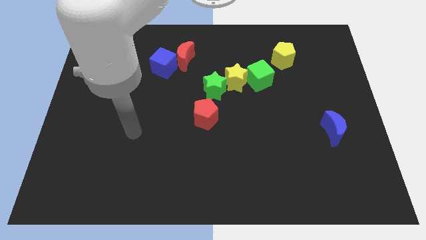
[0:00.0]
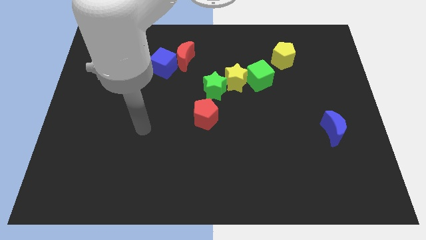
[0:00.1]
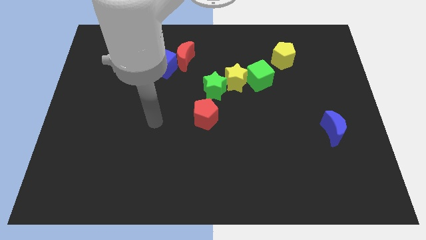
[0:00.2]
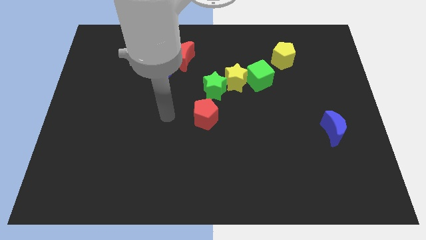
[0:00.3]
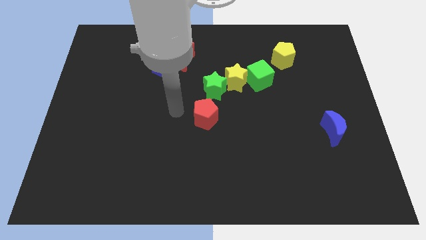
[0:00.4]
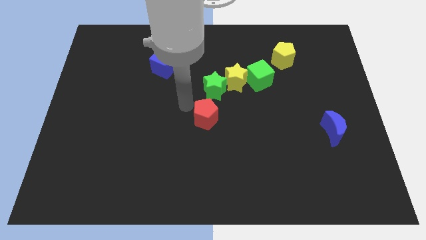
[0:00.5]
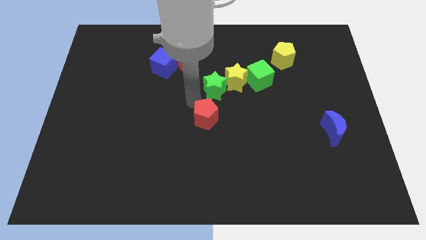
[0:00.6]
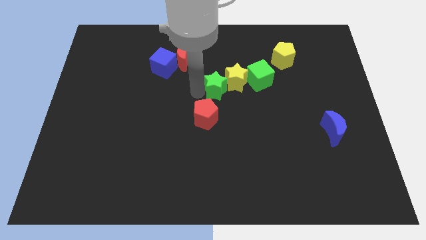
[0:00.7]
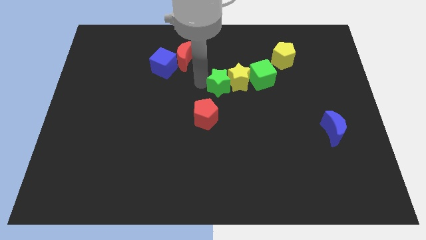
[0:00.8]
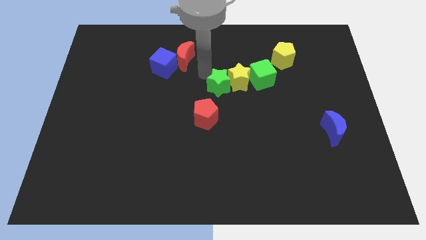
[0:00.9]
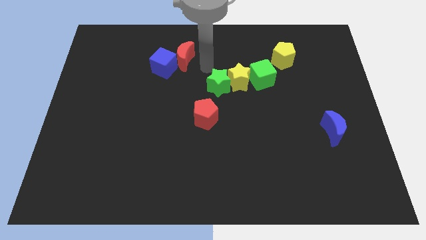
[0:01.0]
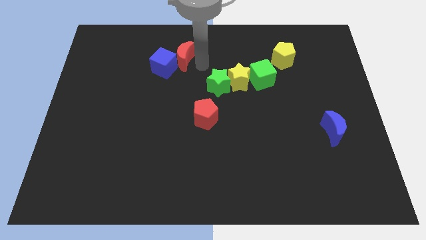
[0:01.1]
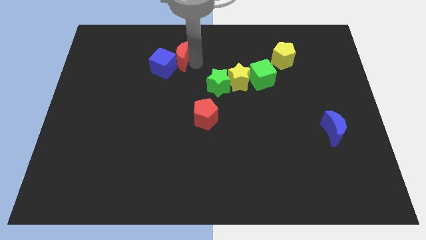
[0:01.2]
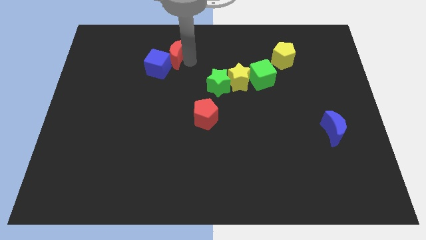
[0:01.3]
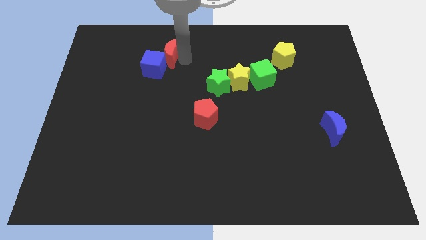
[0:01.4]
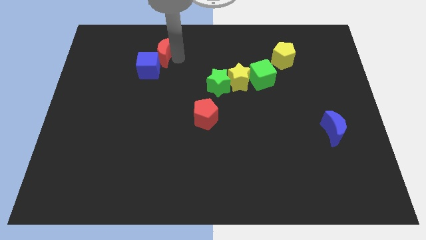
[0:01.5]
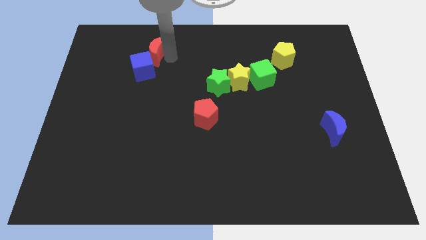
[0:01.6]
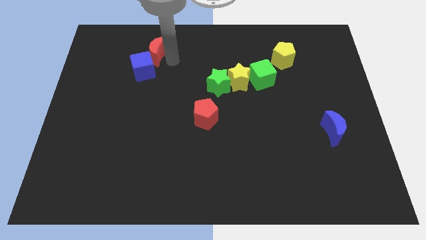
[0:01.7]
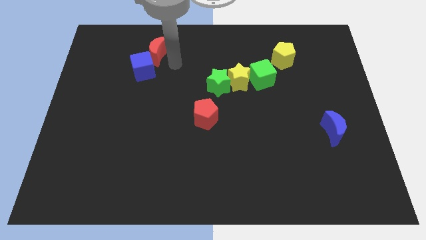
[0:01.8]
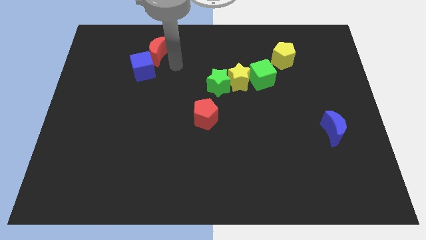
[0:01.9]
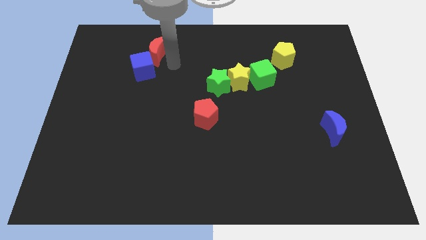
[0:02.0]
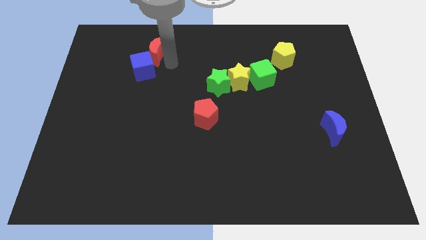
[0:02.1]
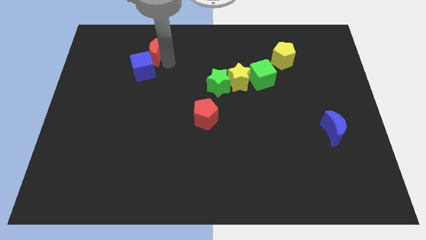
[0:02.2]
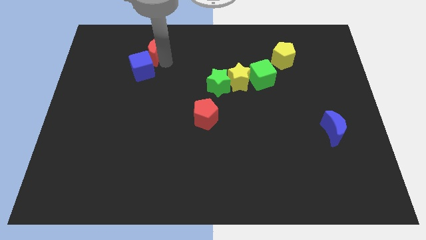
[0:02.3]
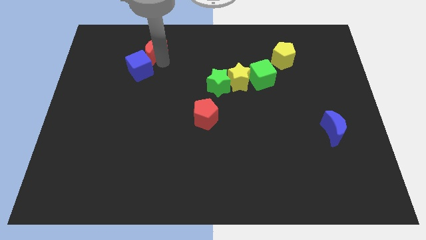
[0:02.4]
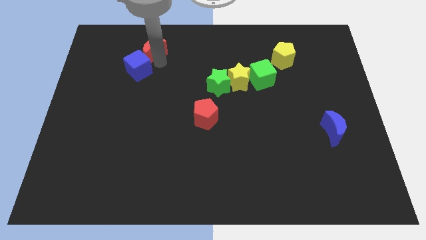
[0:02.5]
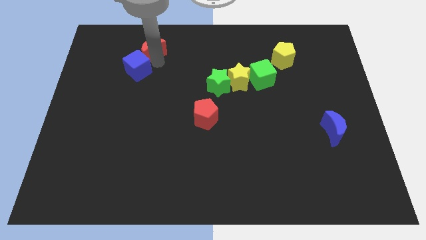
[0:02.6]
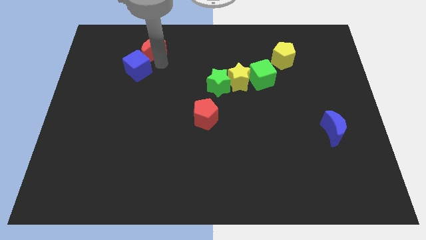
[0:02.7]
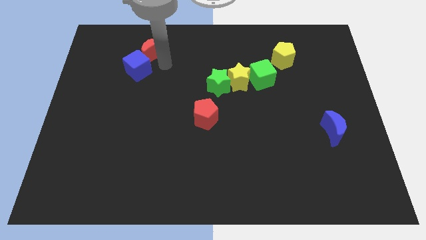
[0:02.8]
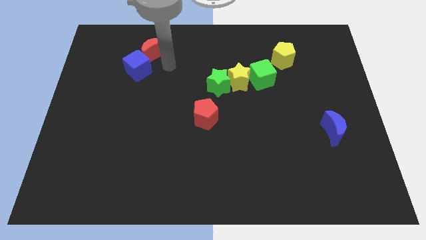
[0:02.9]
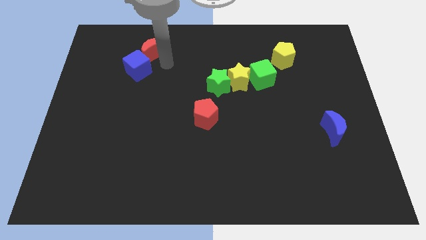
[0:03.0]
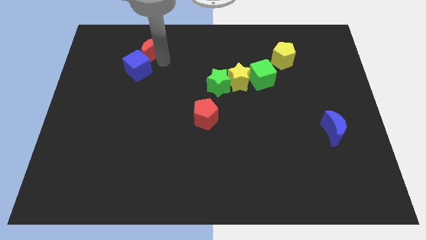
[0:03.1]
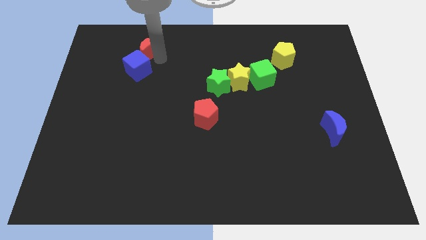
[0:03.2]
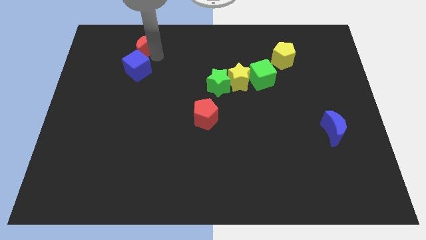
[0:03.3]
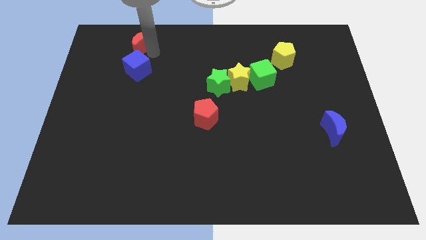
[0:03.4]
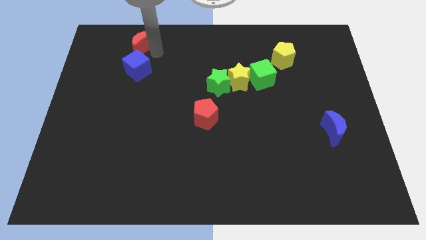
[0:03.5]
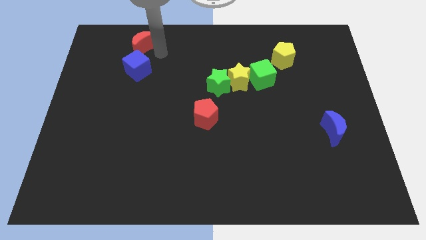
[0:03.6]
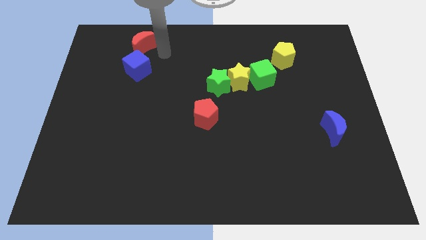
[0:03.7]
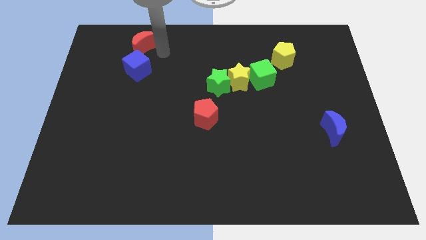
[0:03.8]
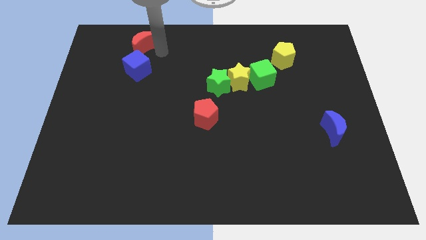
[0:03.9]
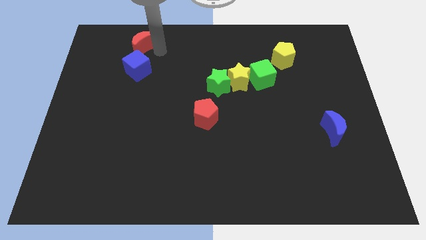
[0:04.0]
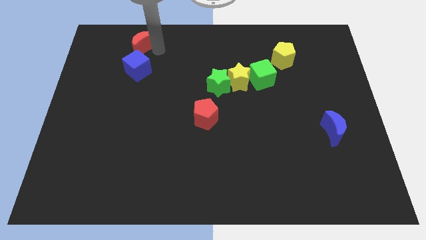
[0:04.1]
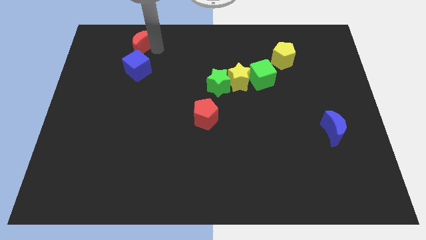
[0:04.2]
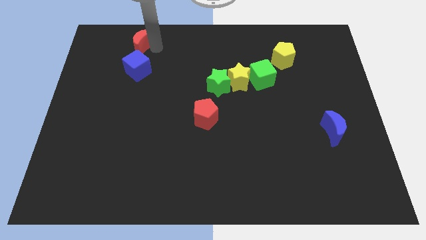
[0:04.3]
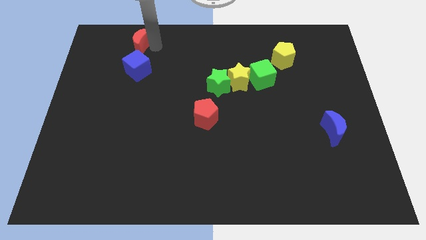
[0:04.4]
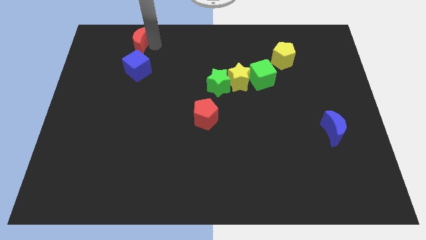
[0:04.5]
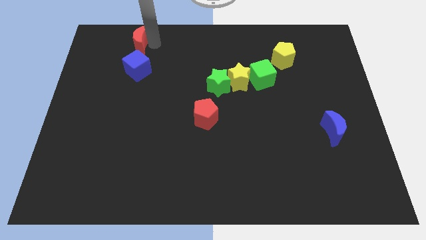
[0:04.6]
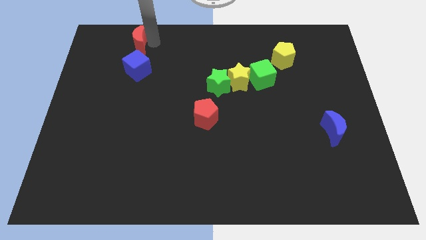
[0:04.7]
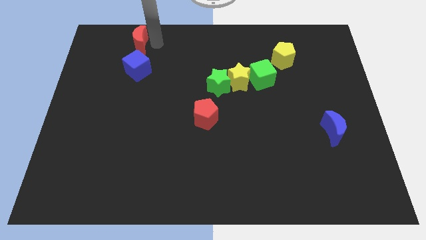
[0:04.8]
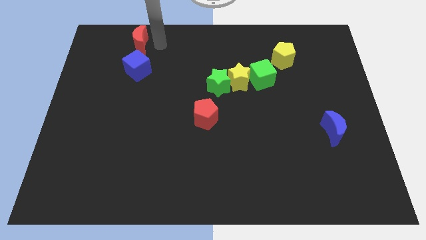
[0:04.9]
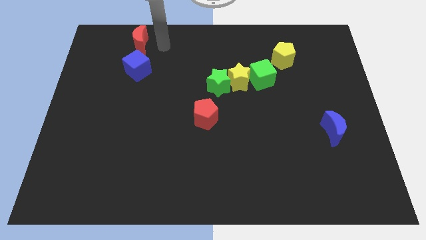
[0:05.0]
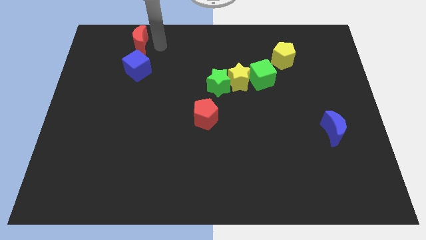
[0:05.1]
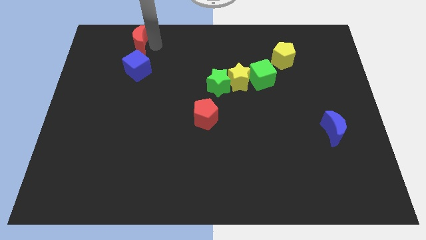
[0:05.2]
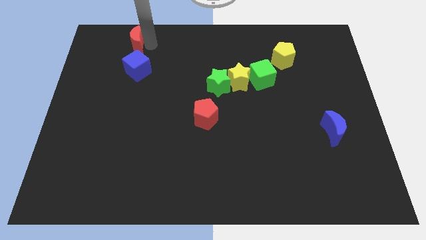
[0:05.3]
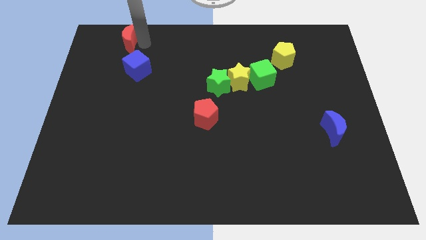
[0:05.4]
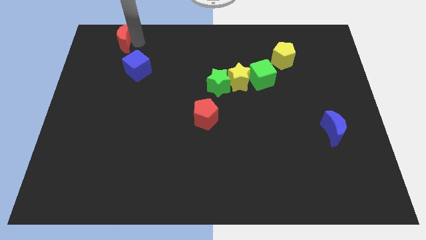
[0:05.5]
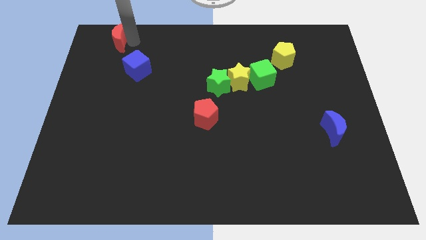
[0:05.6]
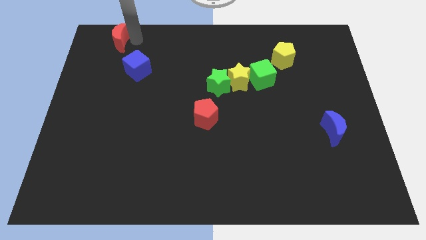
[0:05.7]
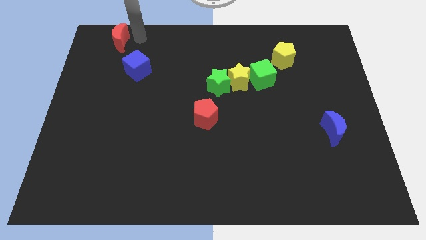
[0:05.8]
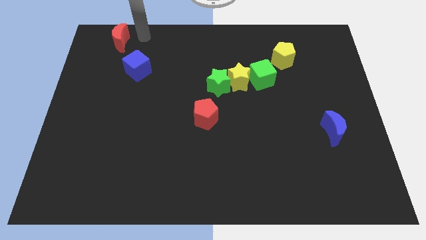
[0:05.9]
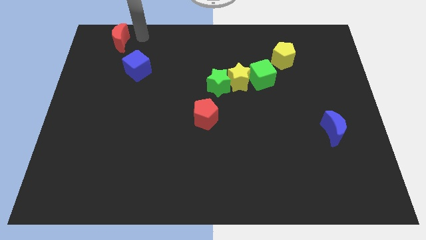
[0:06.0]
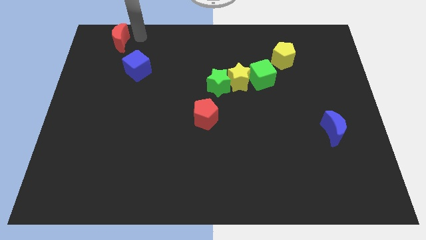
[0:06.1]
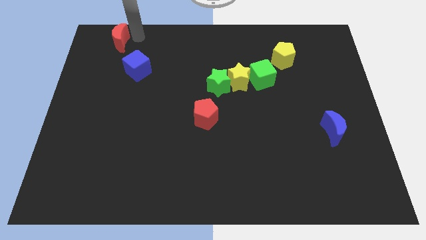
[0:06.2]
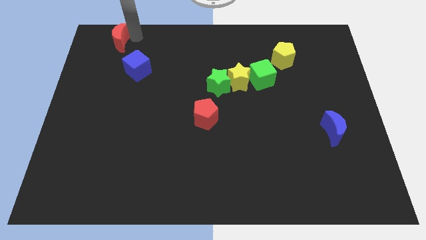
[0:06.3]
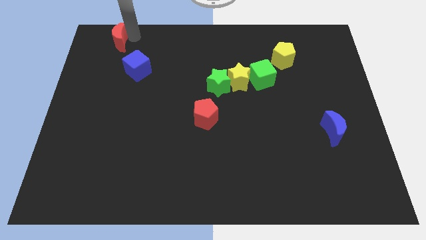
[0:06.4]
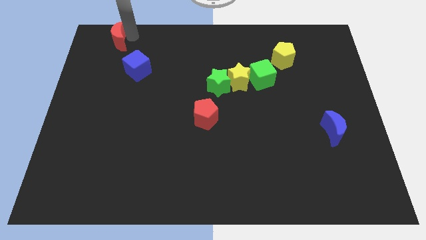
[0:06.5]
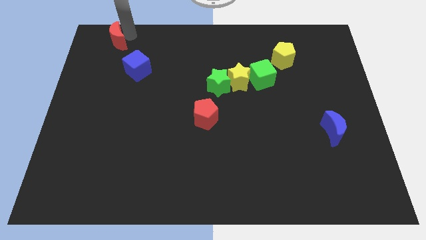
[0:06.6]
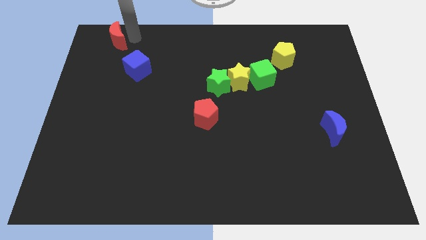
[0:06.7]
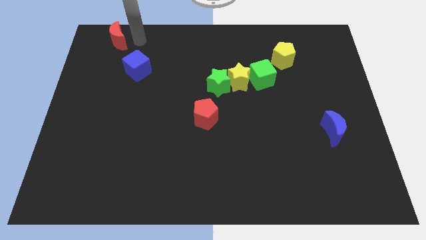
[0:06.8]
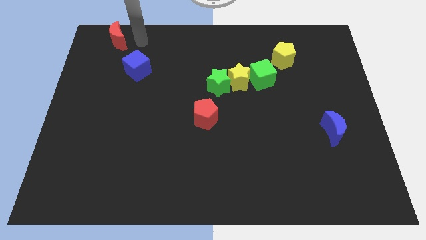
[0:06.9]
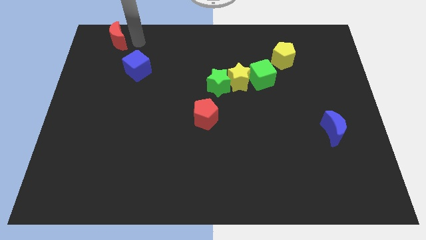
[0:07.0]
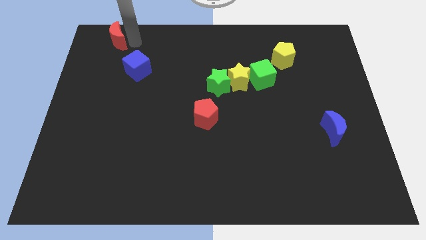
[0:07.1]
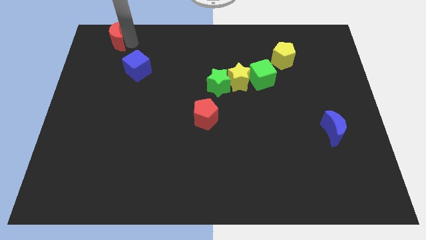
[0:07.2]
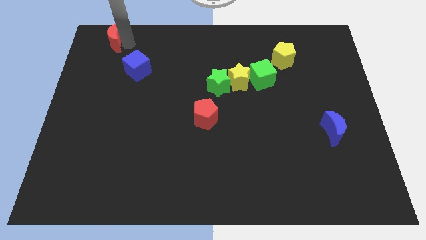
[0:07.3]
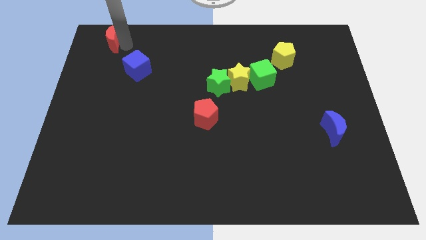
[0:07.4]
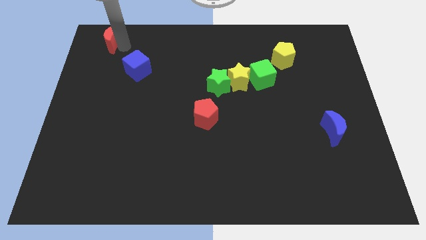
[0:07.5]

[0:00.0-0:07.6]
move the red moon to the top left of the board
